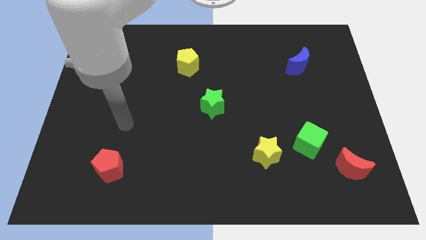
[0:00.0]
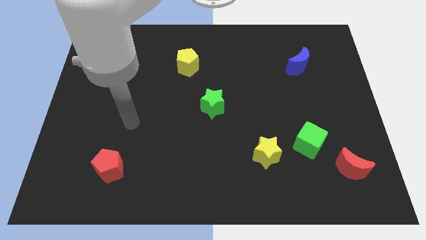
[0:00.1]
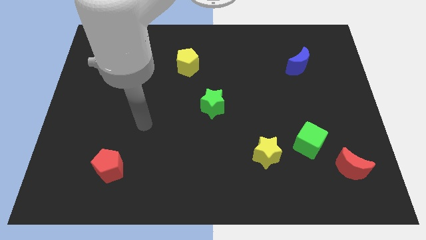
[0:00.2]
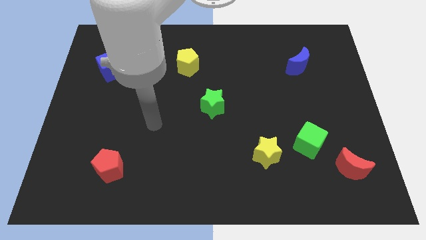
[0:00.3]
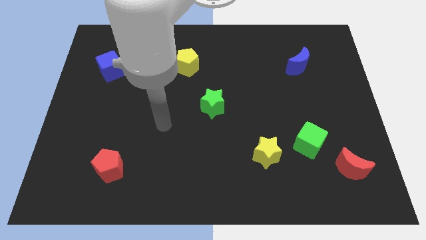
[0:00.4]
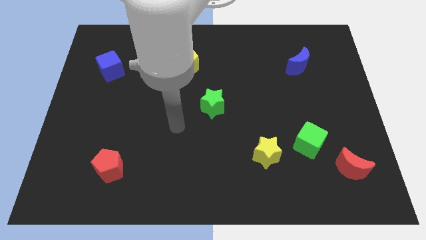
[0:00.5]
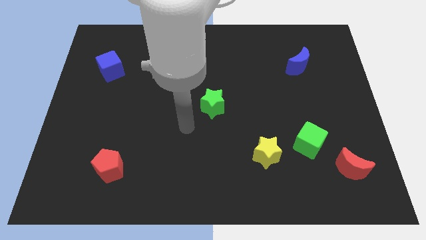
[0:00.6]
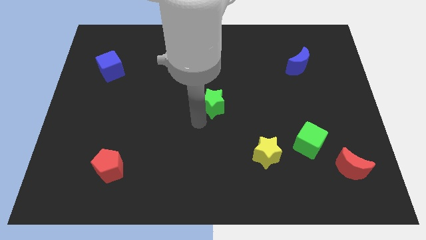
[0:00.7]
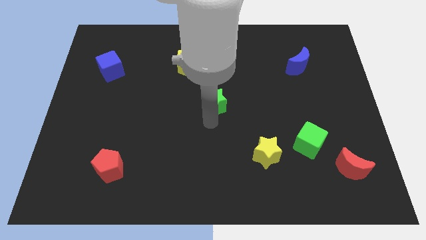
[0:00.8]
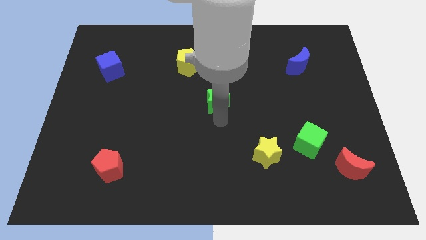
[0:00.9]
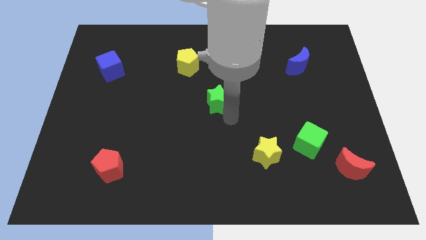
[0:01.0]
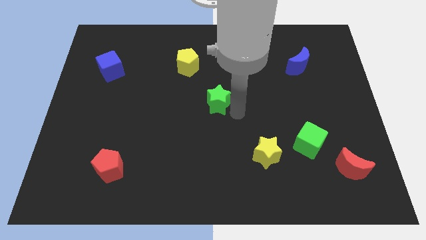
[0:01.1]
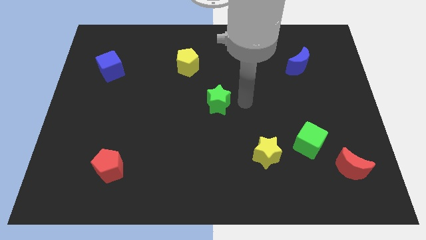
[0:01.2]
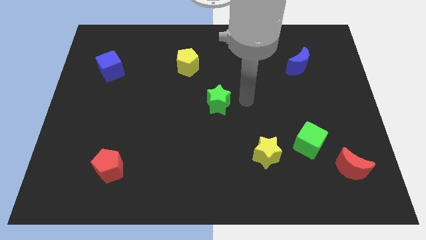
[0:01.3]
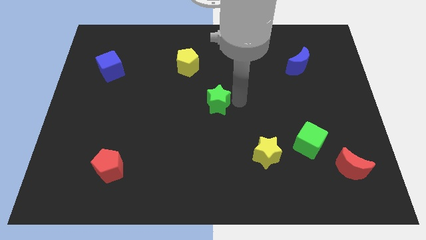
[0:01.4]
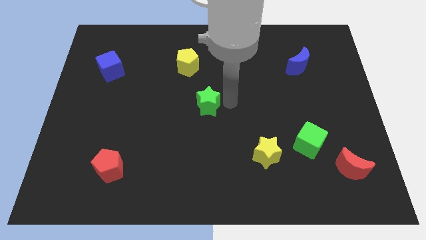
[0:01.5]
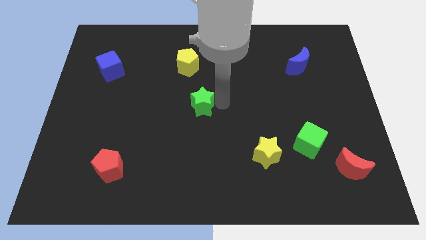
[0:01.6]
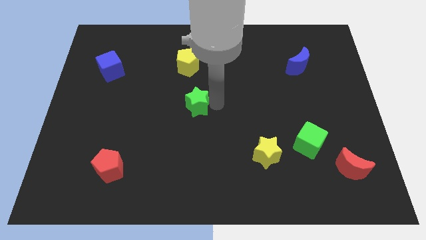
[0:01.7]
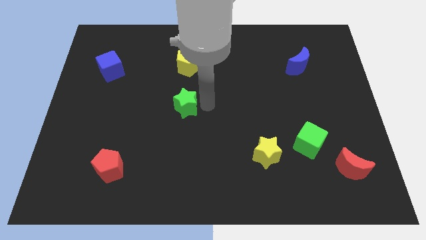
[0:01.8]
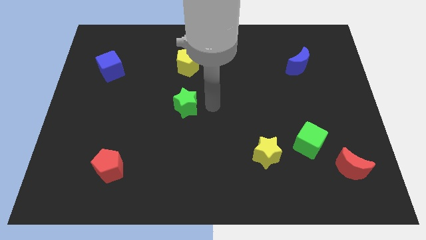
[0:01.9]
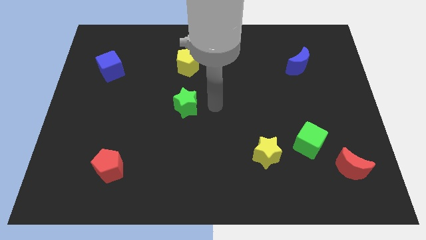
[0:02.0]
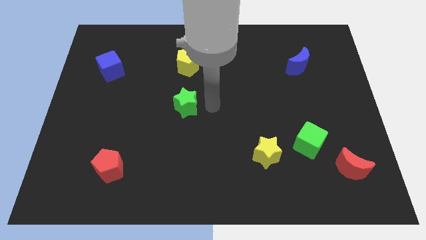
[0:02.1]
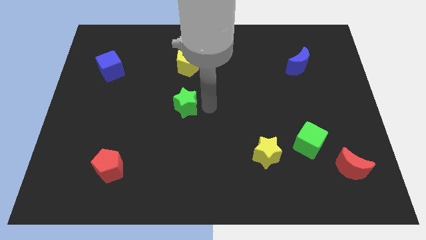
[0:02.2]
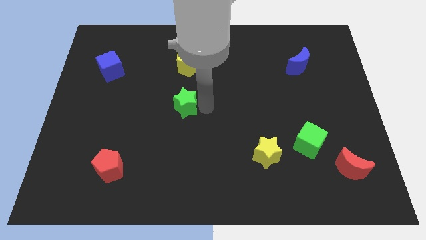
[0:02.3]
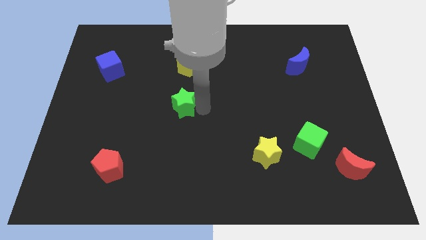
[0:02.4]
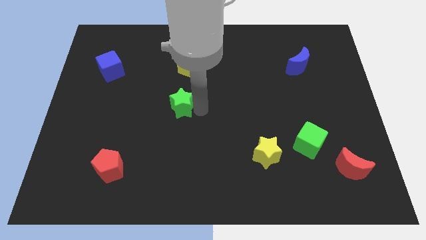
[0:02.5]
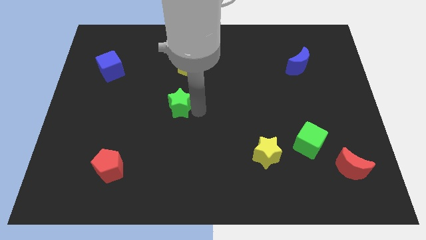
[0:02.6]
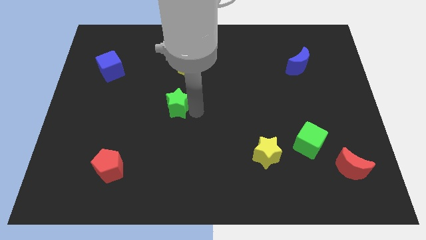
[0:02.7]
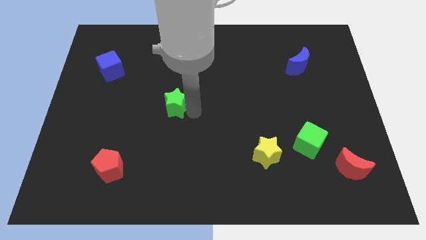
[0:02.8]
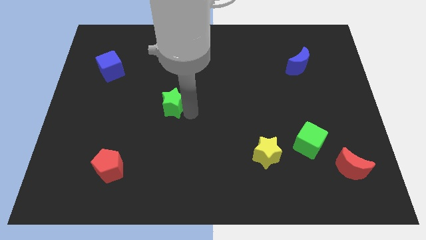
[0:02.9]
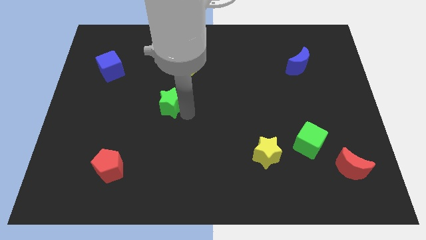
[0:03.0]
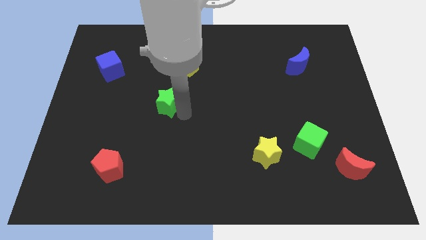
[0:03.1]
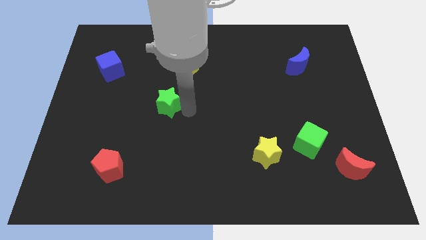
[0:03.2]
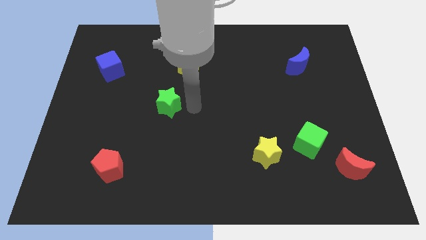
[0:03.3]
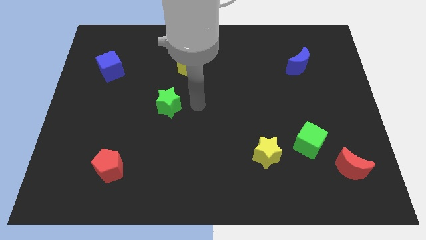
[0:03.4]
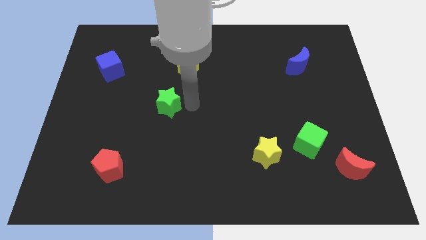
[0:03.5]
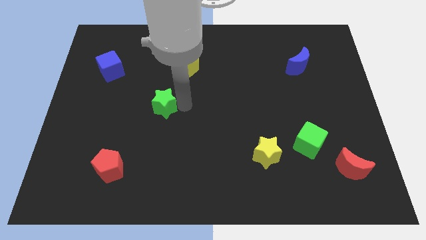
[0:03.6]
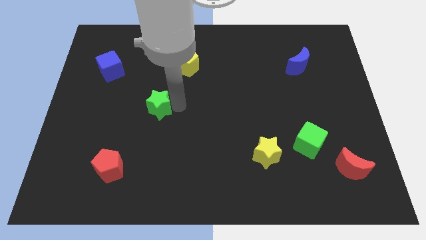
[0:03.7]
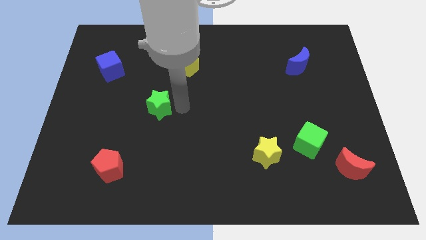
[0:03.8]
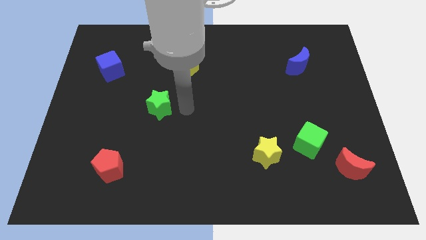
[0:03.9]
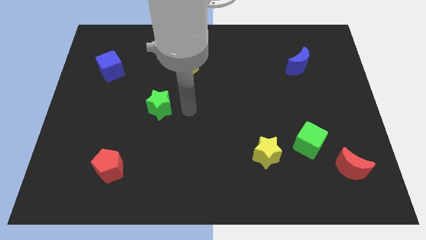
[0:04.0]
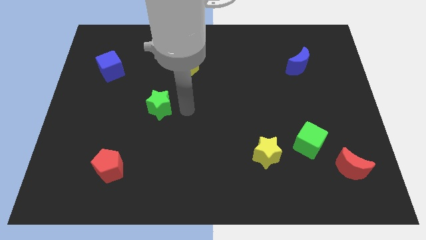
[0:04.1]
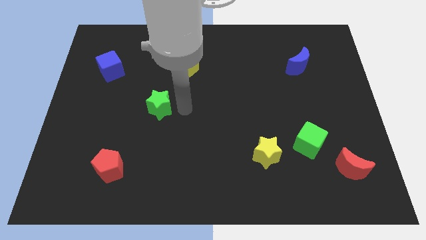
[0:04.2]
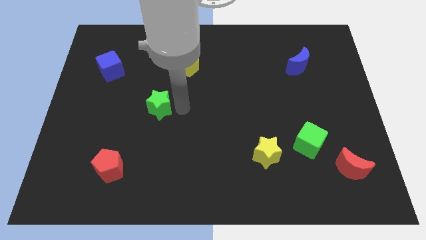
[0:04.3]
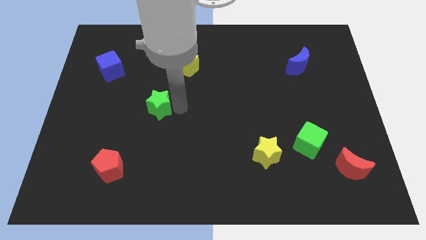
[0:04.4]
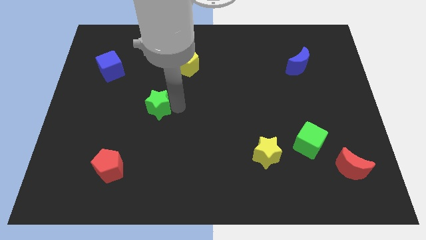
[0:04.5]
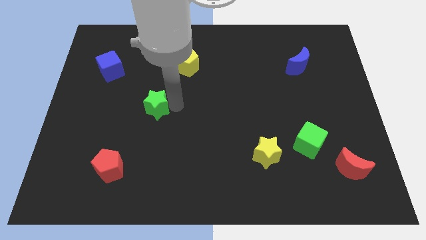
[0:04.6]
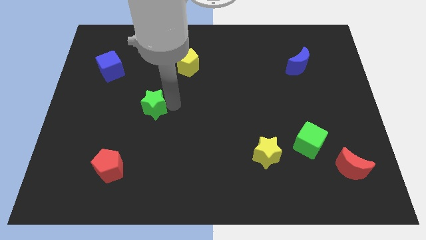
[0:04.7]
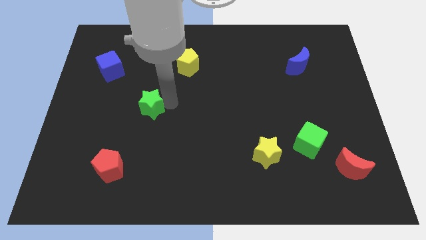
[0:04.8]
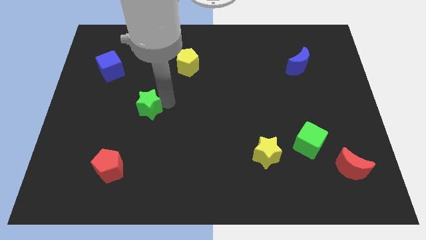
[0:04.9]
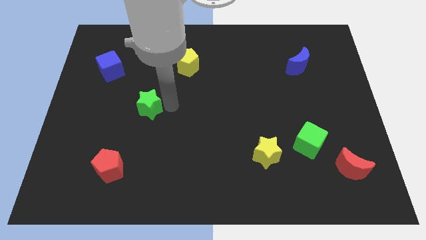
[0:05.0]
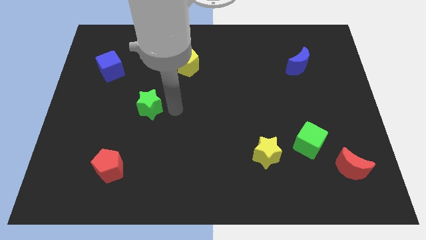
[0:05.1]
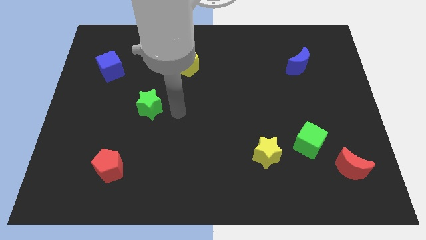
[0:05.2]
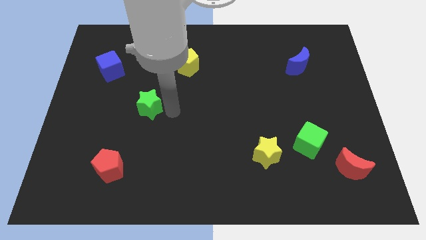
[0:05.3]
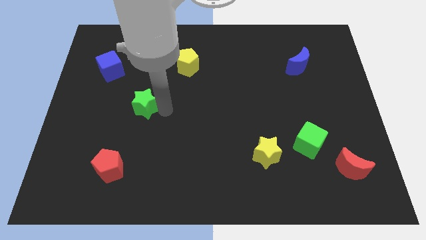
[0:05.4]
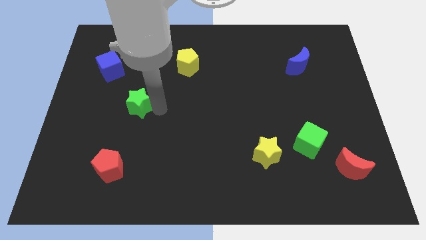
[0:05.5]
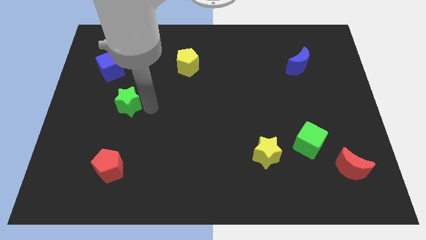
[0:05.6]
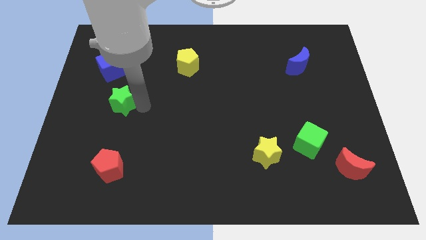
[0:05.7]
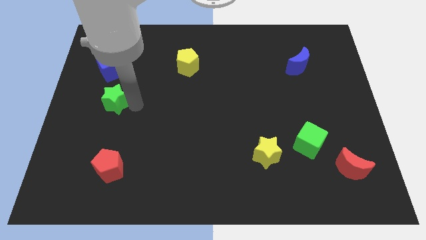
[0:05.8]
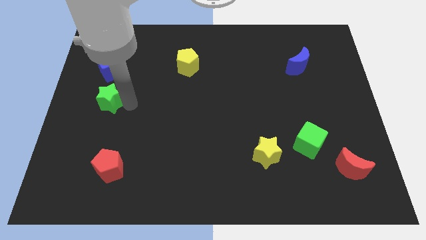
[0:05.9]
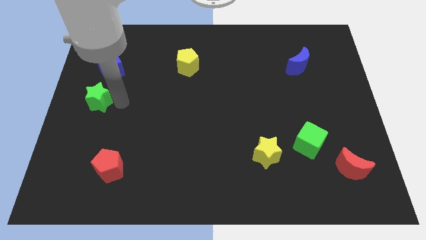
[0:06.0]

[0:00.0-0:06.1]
push the green star to the left side of the board

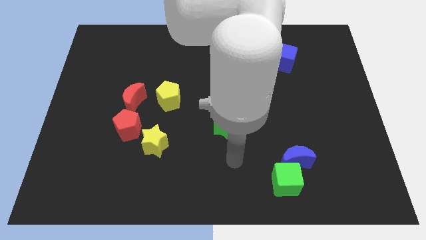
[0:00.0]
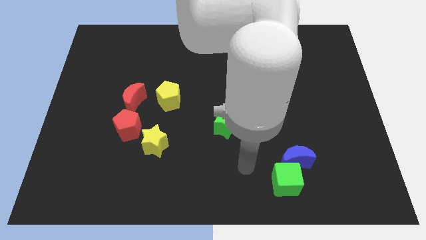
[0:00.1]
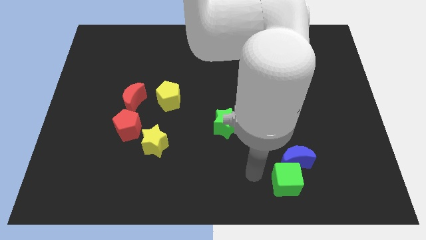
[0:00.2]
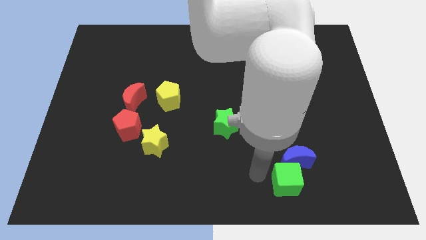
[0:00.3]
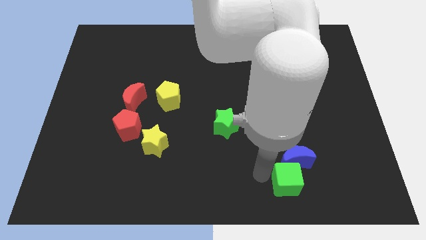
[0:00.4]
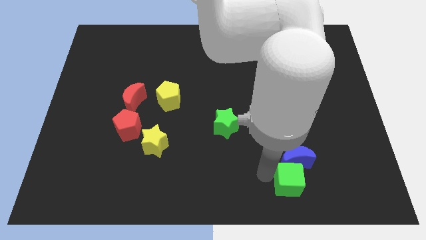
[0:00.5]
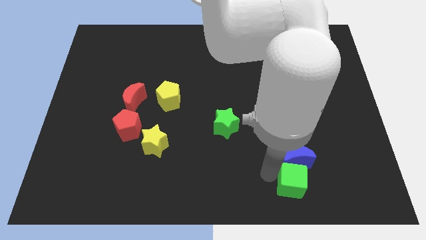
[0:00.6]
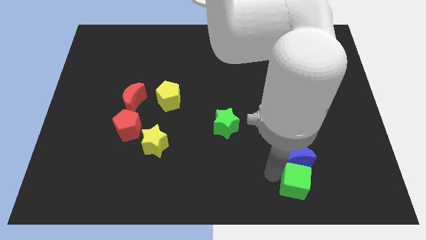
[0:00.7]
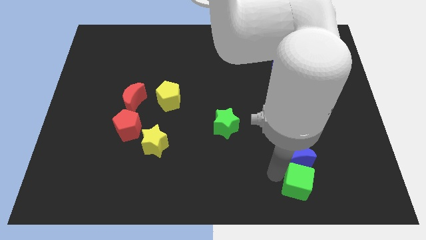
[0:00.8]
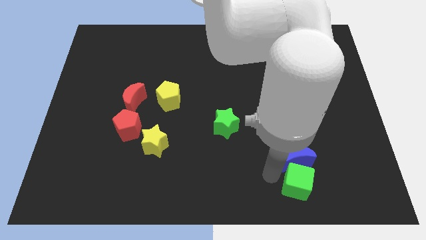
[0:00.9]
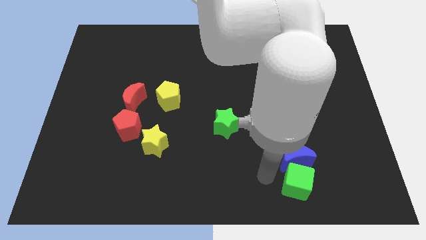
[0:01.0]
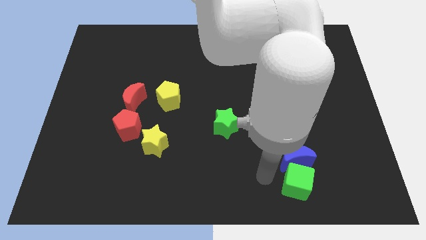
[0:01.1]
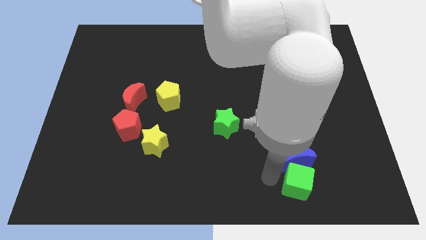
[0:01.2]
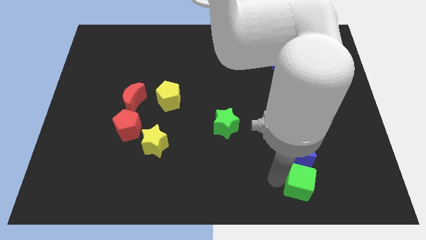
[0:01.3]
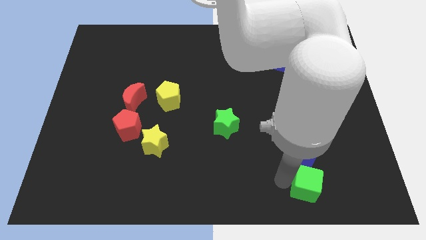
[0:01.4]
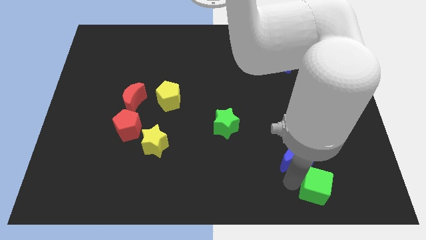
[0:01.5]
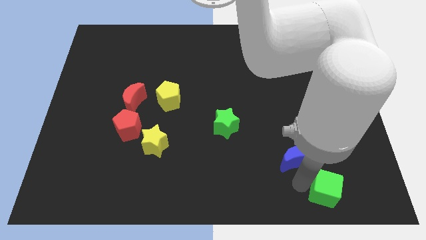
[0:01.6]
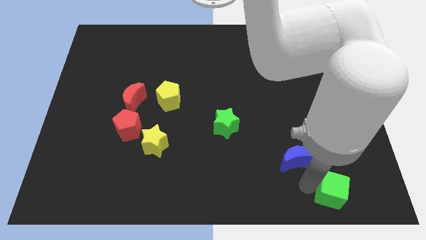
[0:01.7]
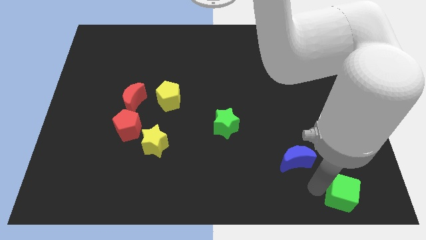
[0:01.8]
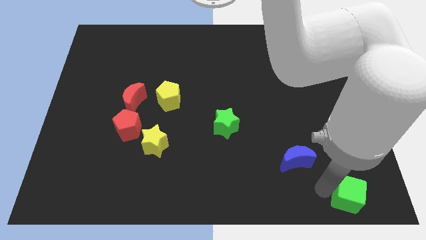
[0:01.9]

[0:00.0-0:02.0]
put the green cube to the lower right corner
